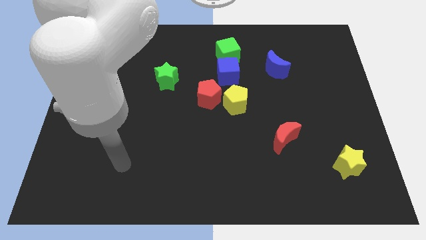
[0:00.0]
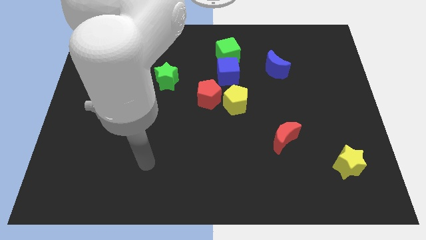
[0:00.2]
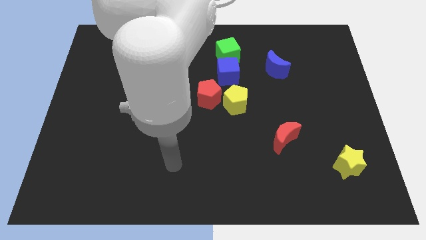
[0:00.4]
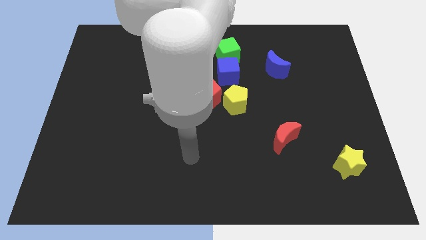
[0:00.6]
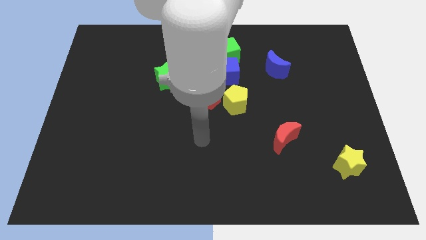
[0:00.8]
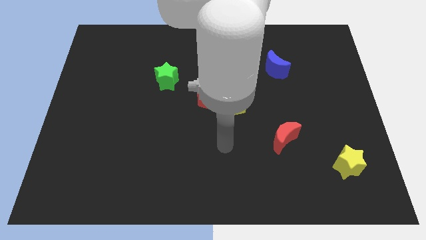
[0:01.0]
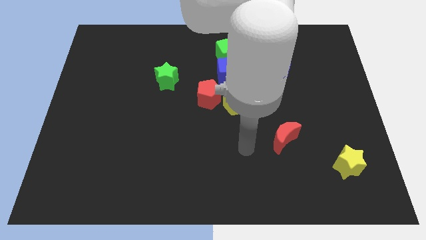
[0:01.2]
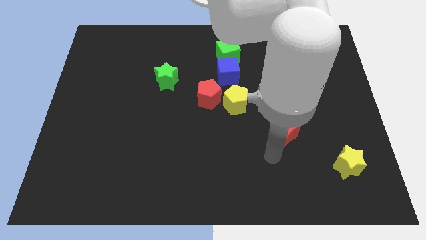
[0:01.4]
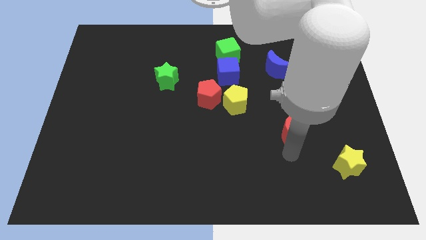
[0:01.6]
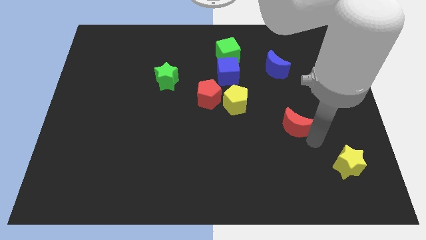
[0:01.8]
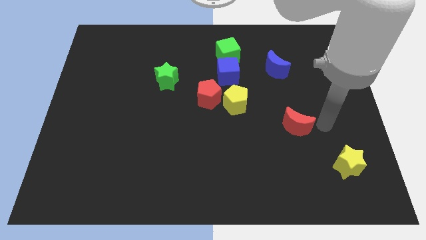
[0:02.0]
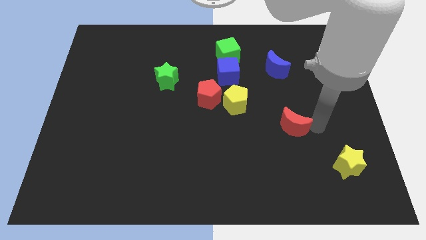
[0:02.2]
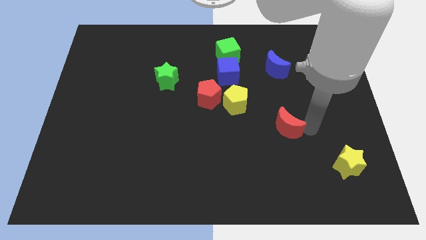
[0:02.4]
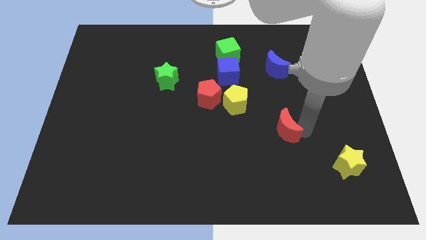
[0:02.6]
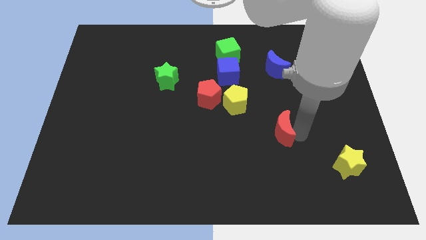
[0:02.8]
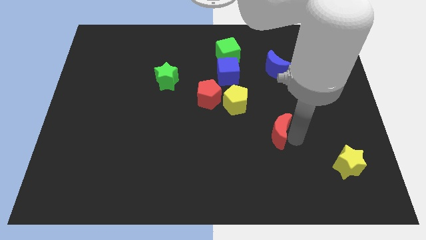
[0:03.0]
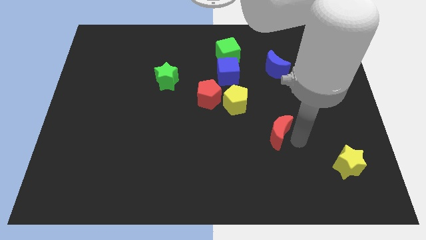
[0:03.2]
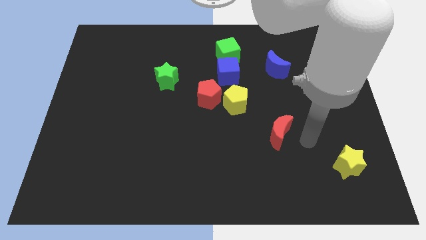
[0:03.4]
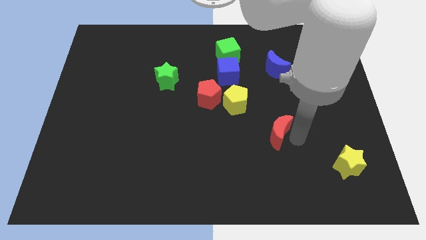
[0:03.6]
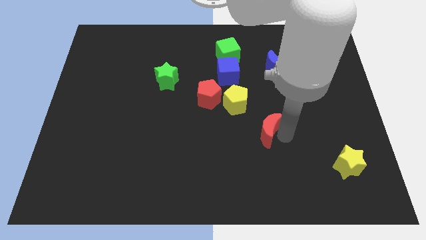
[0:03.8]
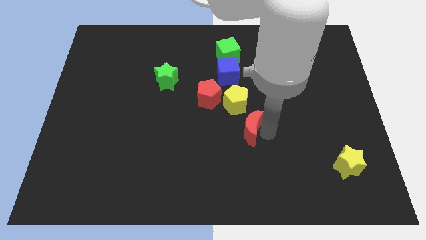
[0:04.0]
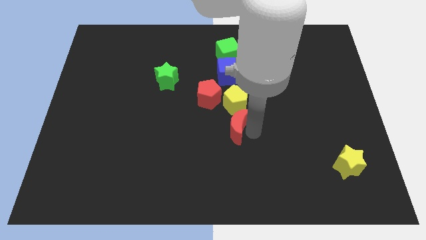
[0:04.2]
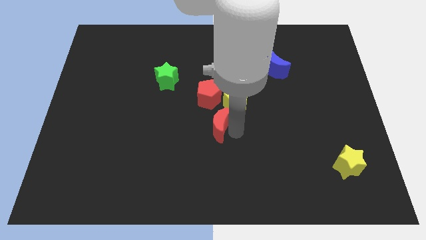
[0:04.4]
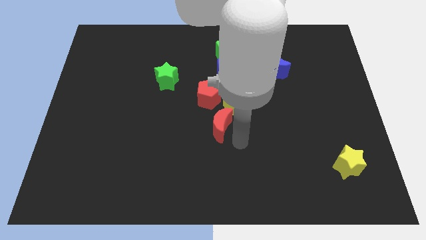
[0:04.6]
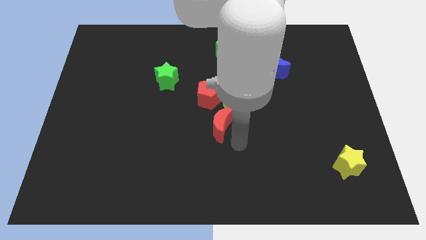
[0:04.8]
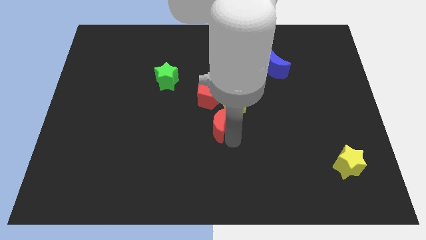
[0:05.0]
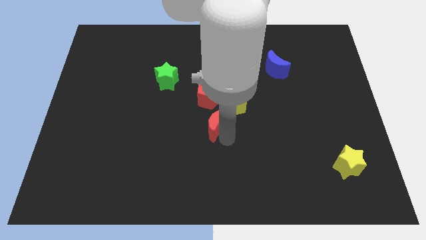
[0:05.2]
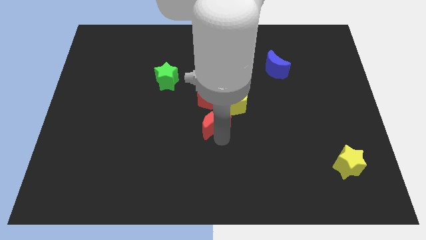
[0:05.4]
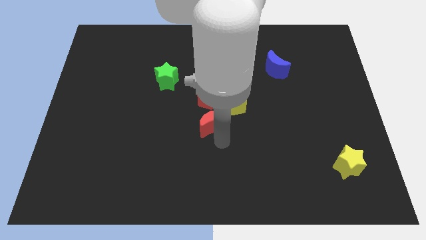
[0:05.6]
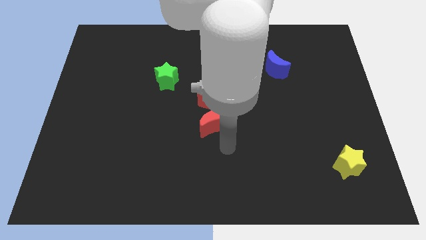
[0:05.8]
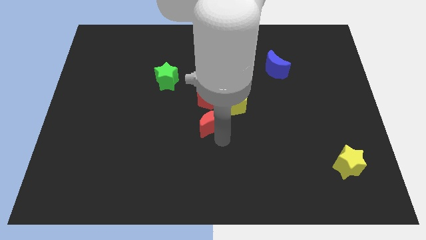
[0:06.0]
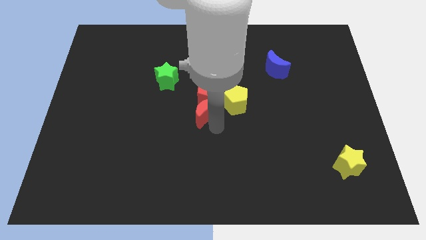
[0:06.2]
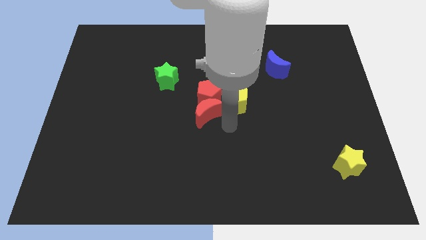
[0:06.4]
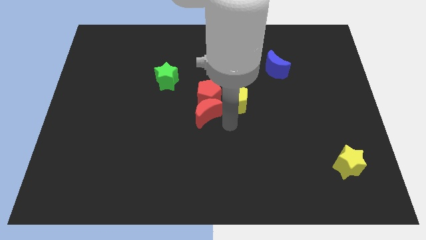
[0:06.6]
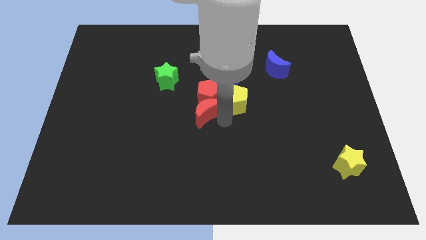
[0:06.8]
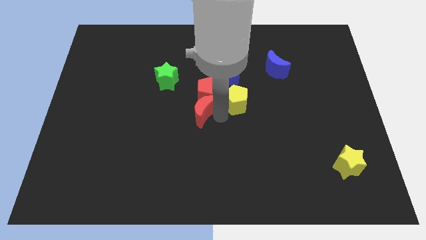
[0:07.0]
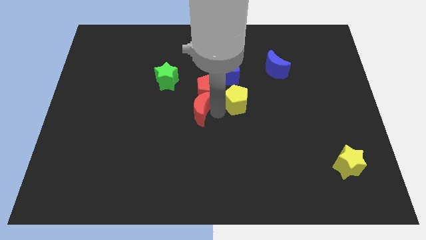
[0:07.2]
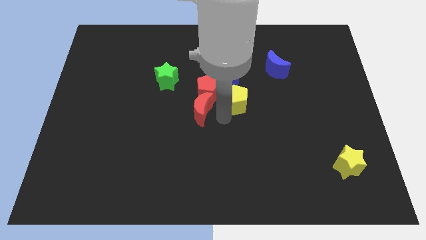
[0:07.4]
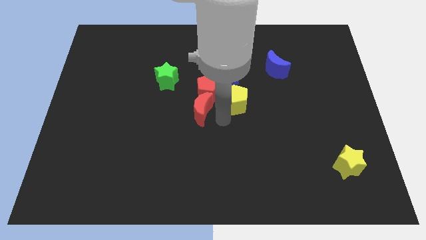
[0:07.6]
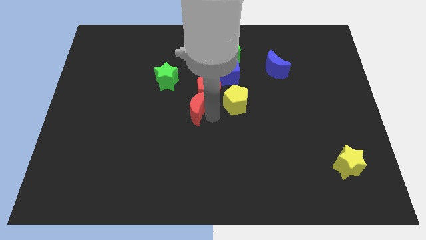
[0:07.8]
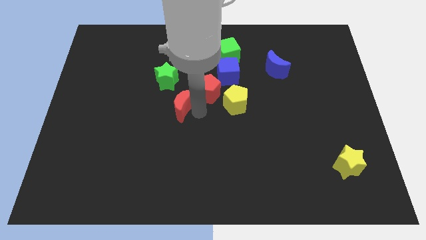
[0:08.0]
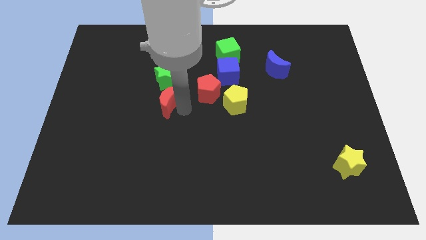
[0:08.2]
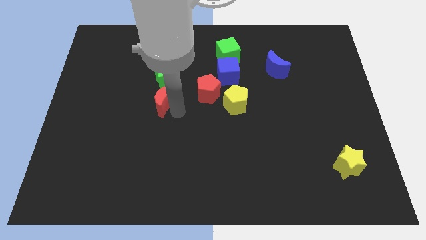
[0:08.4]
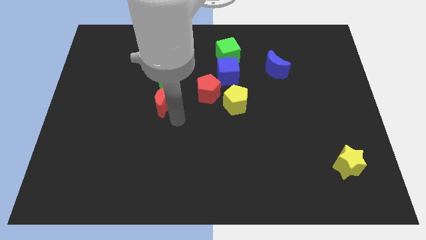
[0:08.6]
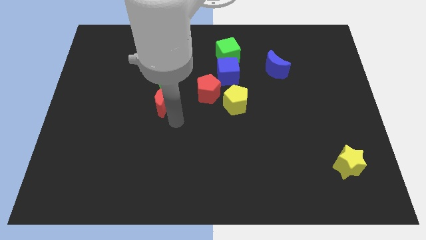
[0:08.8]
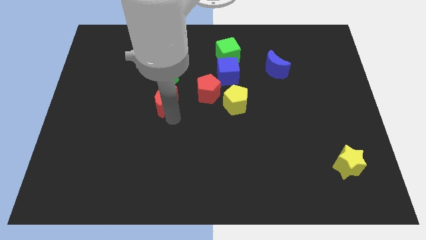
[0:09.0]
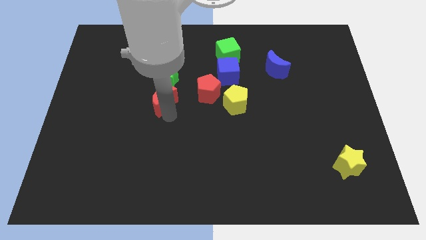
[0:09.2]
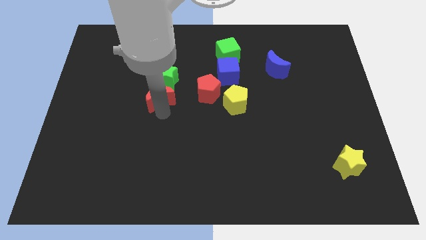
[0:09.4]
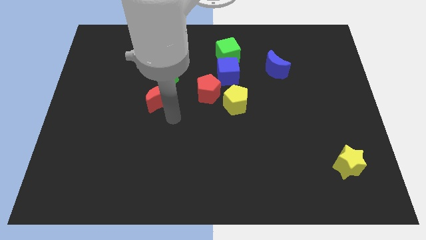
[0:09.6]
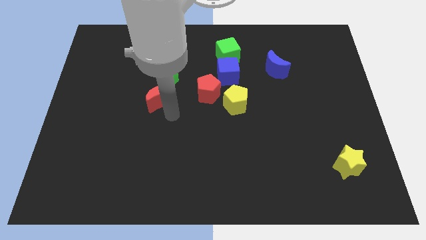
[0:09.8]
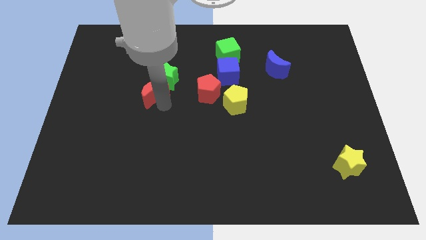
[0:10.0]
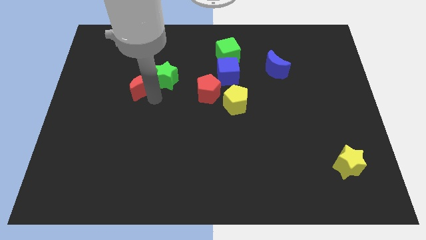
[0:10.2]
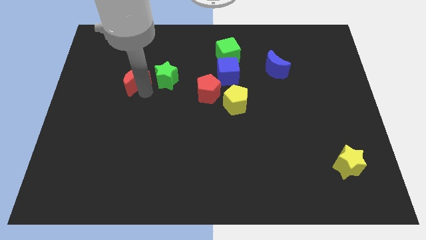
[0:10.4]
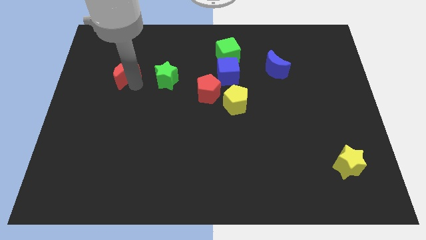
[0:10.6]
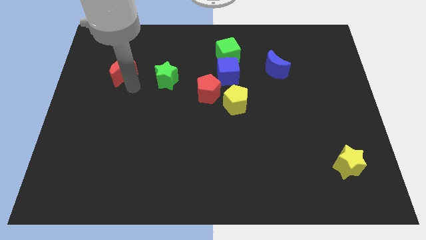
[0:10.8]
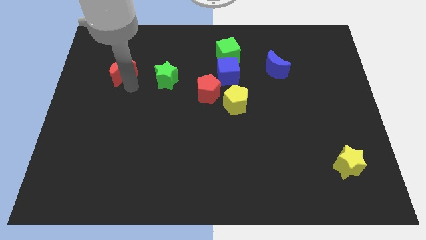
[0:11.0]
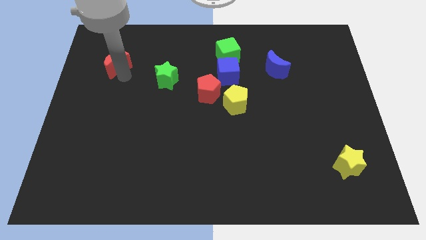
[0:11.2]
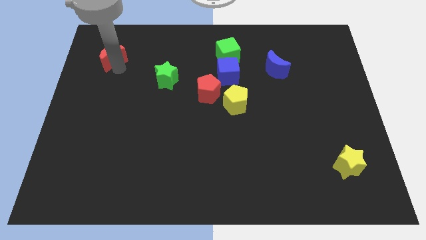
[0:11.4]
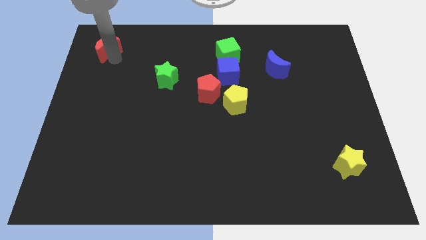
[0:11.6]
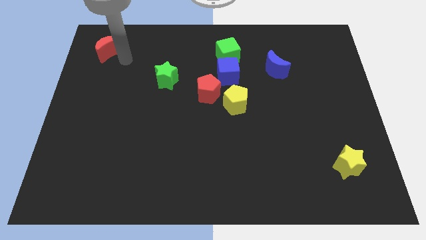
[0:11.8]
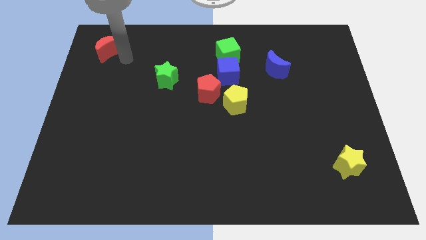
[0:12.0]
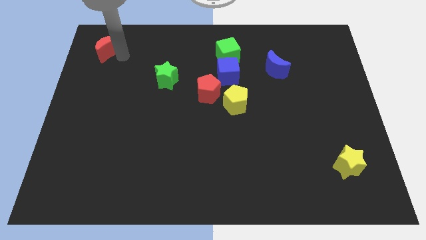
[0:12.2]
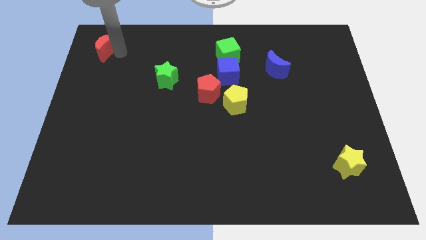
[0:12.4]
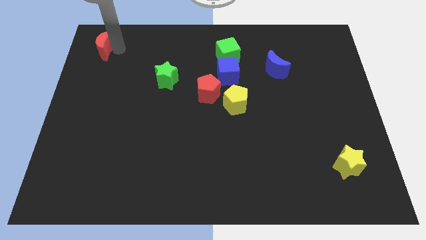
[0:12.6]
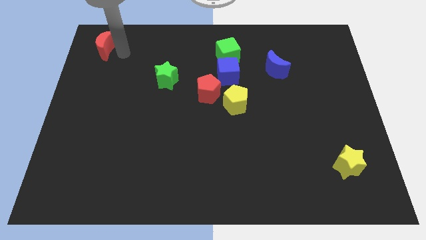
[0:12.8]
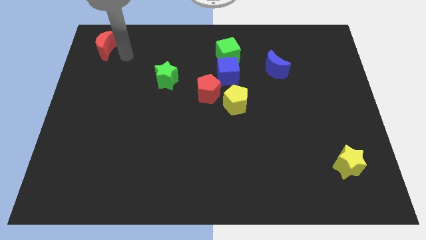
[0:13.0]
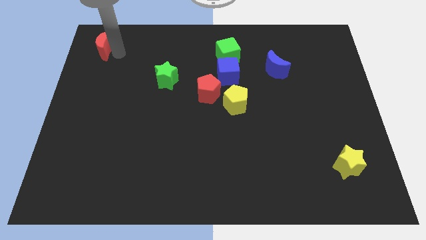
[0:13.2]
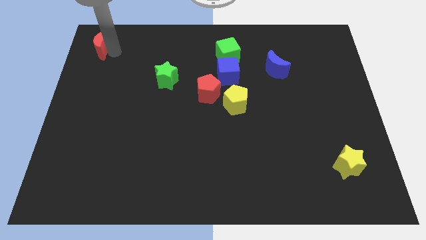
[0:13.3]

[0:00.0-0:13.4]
push the red moon to the top left corner
